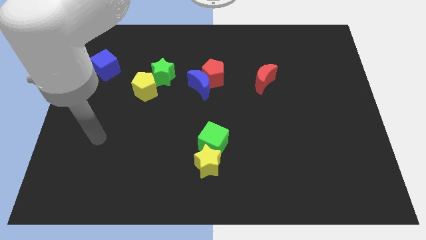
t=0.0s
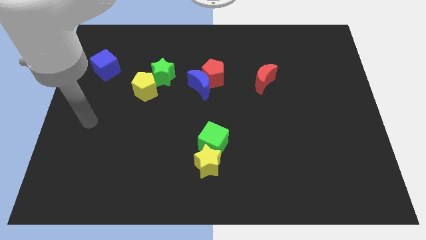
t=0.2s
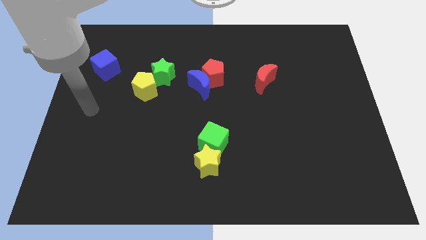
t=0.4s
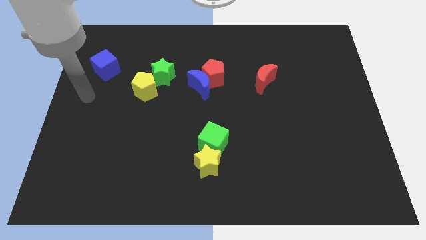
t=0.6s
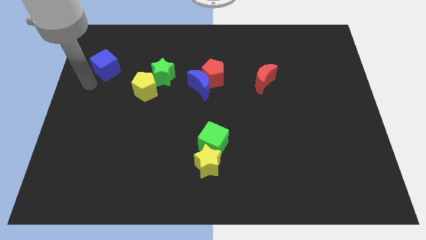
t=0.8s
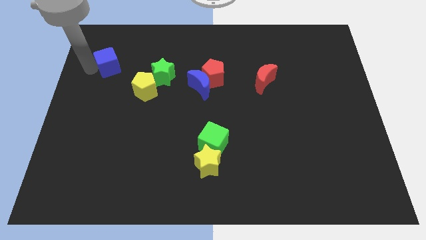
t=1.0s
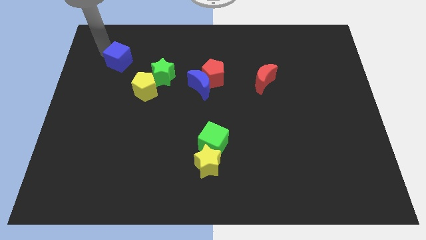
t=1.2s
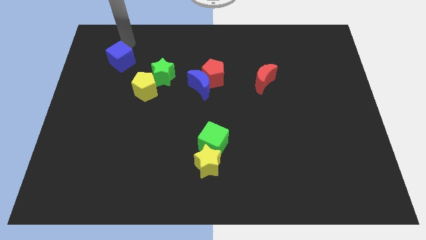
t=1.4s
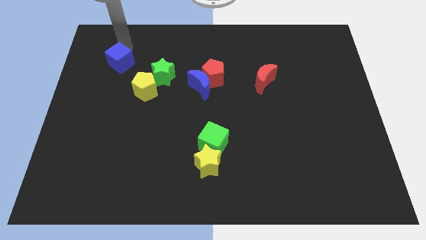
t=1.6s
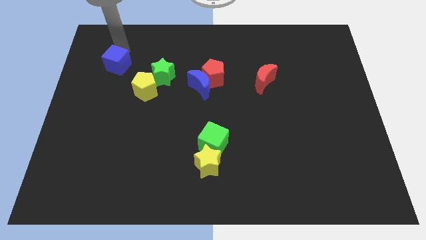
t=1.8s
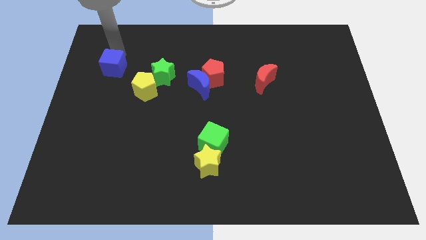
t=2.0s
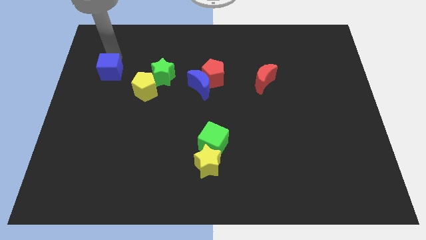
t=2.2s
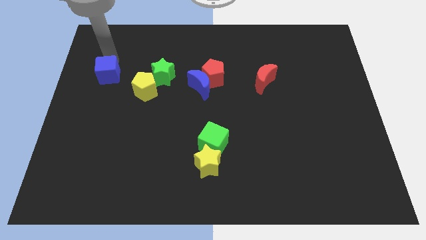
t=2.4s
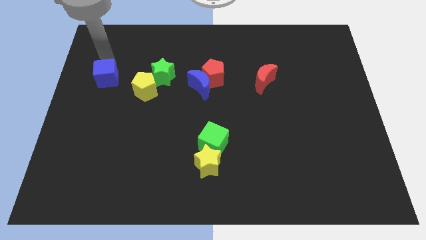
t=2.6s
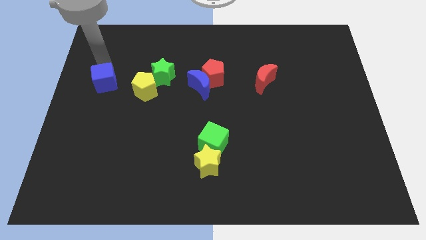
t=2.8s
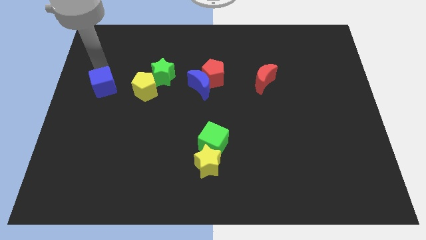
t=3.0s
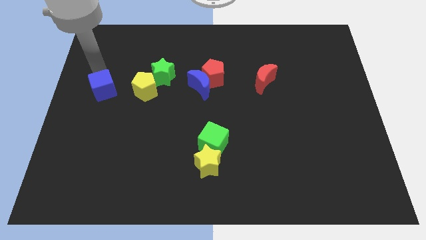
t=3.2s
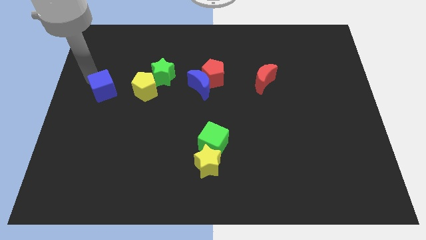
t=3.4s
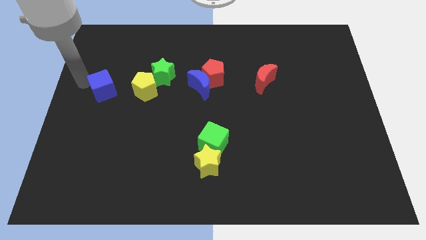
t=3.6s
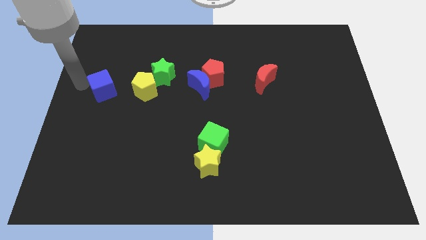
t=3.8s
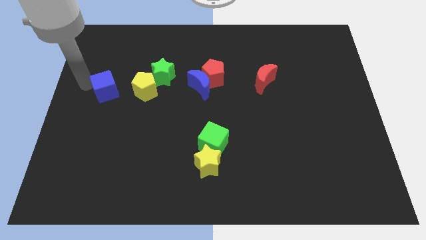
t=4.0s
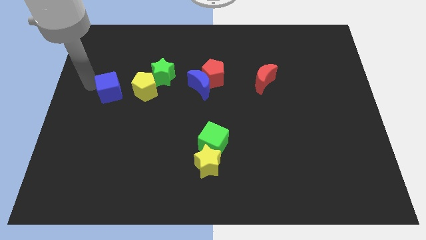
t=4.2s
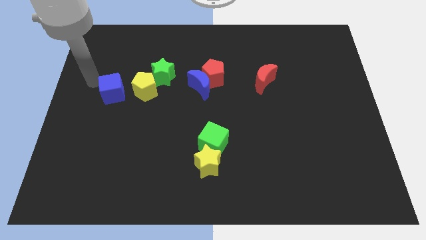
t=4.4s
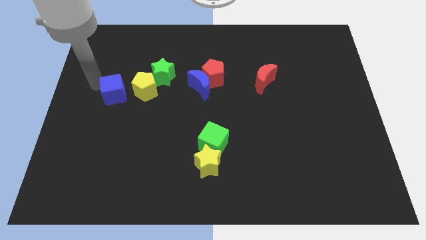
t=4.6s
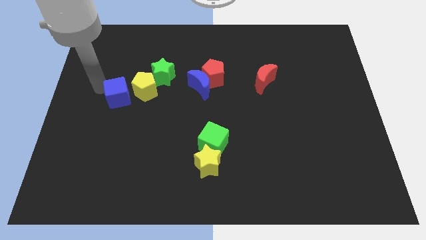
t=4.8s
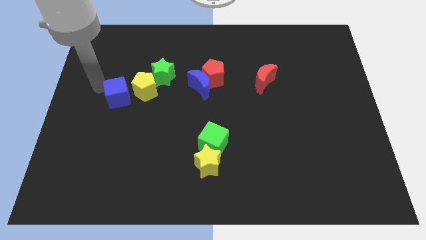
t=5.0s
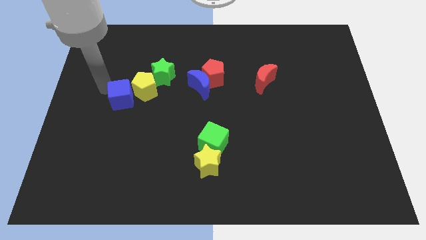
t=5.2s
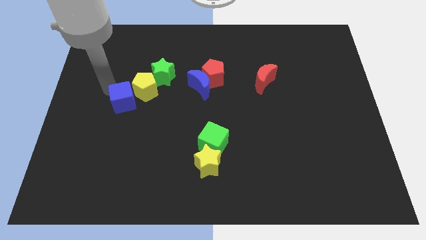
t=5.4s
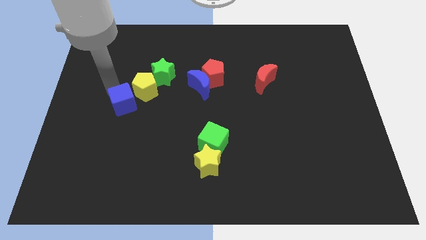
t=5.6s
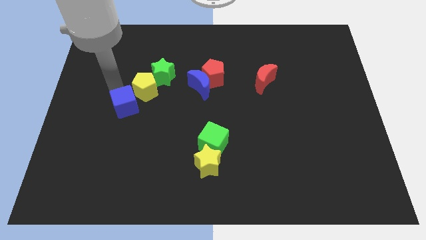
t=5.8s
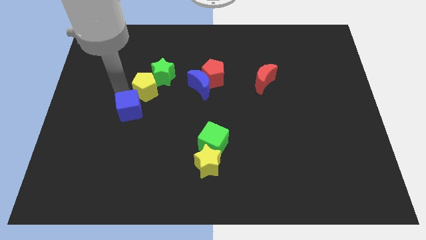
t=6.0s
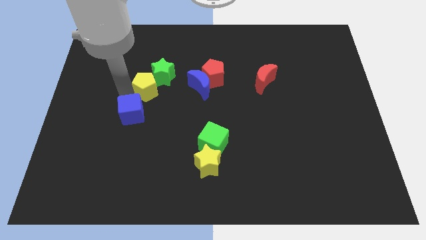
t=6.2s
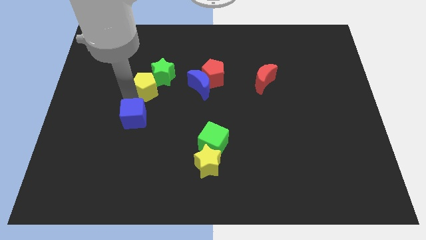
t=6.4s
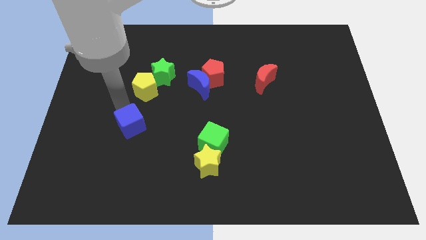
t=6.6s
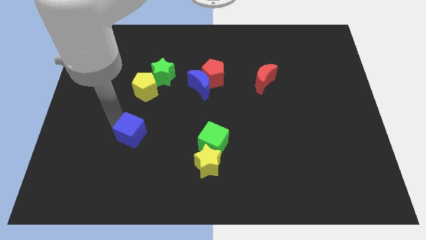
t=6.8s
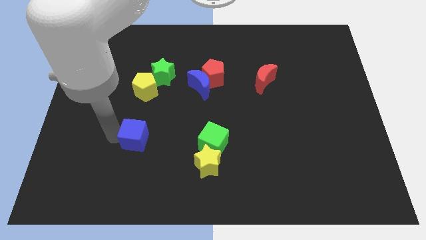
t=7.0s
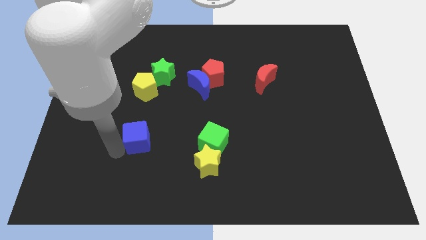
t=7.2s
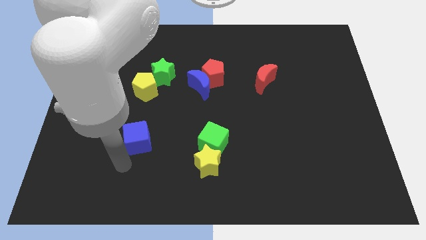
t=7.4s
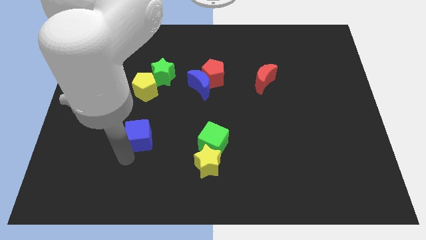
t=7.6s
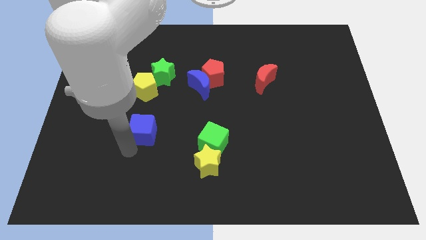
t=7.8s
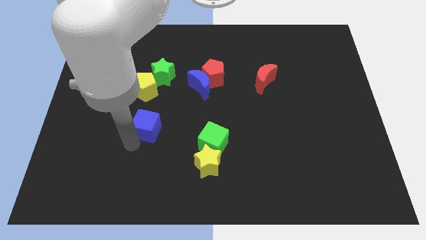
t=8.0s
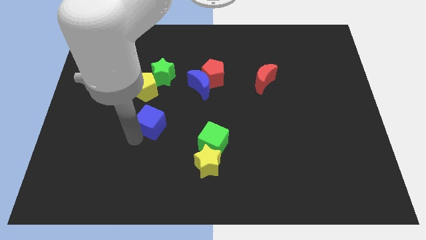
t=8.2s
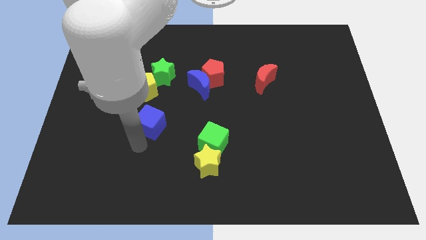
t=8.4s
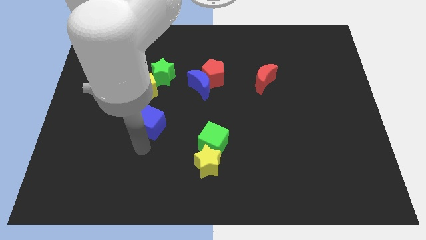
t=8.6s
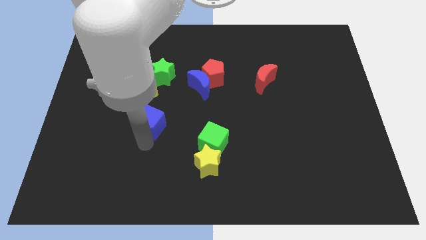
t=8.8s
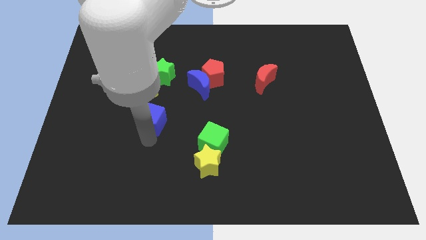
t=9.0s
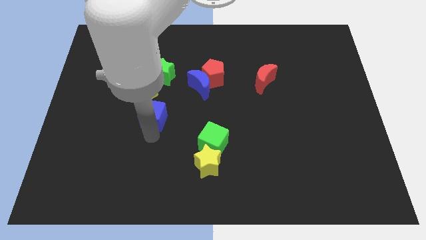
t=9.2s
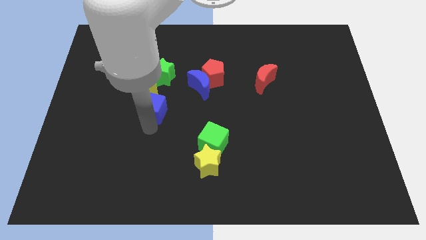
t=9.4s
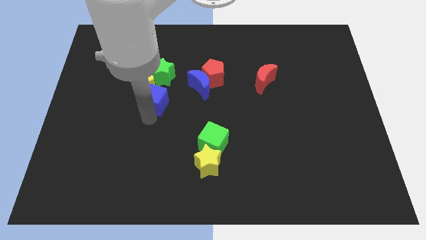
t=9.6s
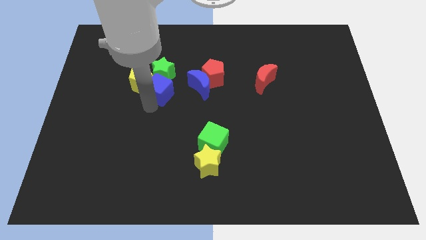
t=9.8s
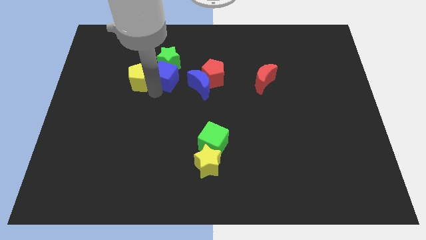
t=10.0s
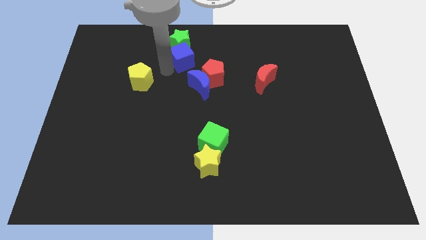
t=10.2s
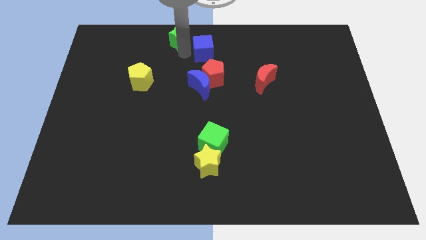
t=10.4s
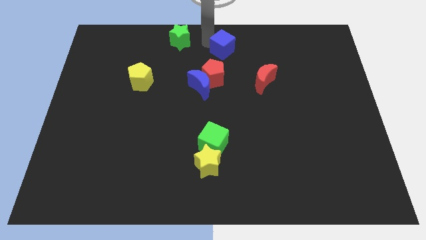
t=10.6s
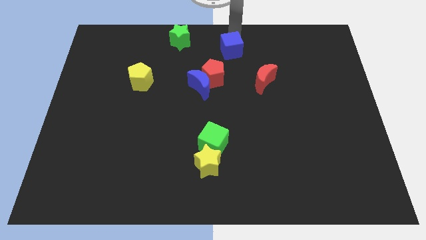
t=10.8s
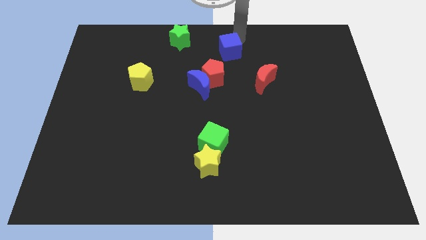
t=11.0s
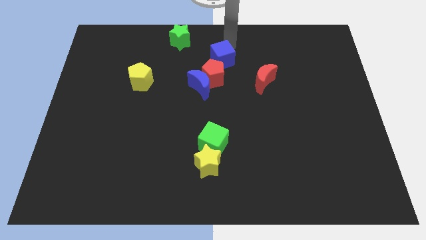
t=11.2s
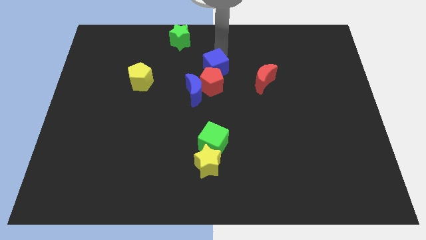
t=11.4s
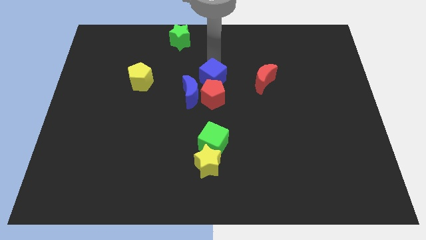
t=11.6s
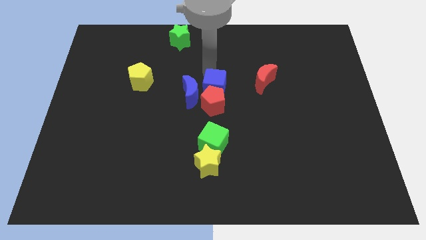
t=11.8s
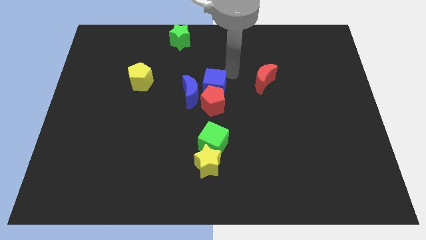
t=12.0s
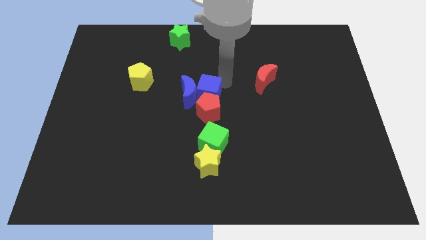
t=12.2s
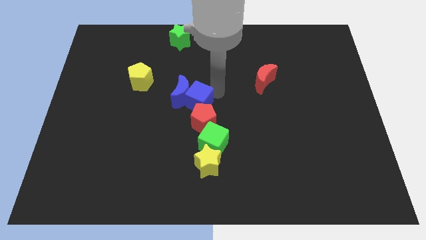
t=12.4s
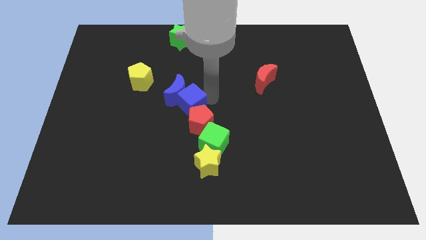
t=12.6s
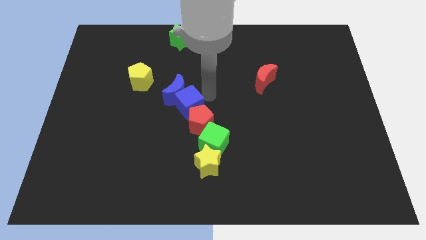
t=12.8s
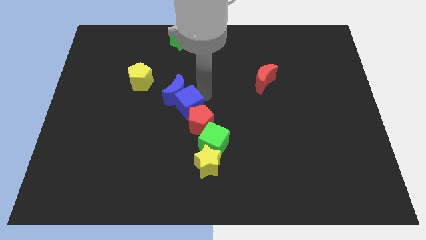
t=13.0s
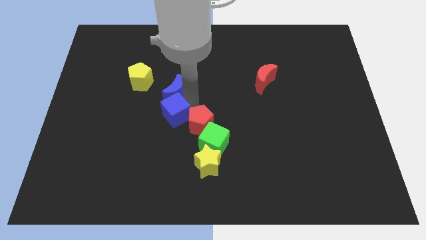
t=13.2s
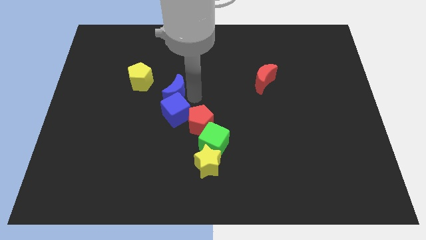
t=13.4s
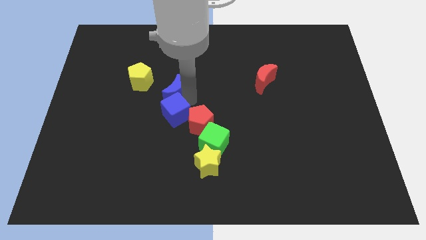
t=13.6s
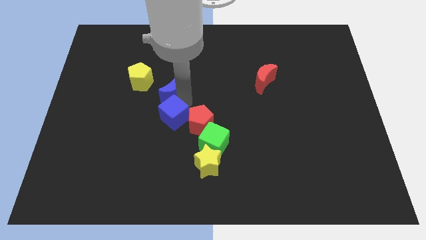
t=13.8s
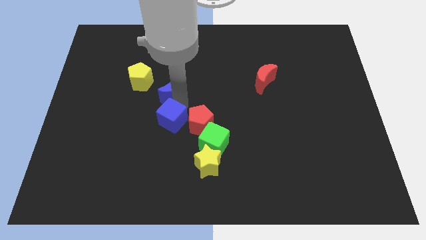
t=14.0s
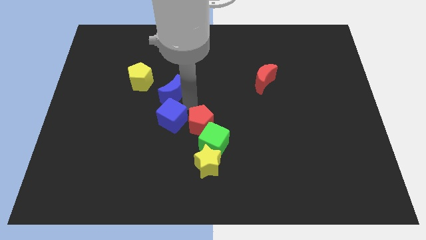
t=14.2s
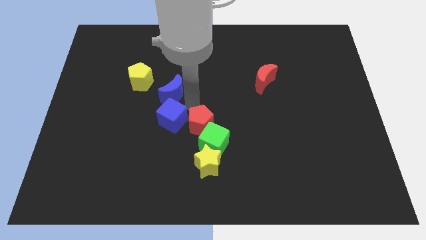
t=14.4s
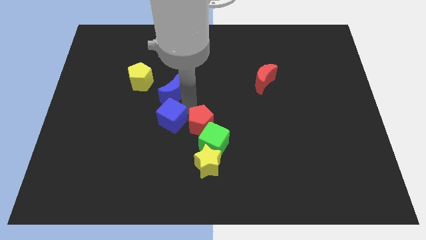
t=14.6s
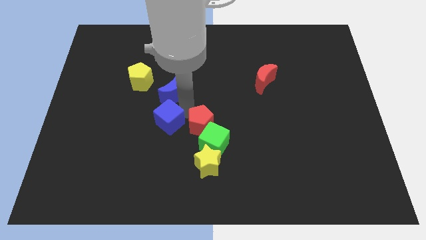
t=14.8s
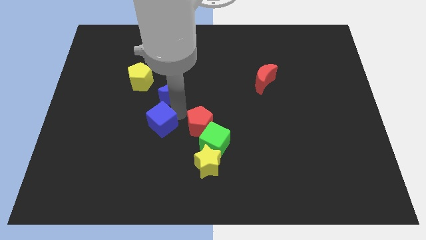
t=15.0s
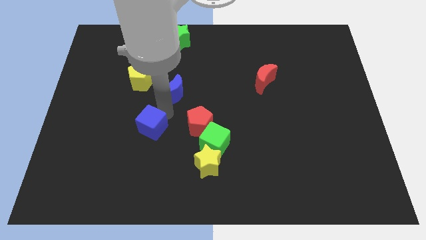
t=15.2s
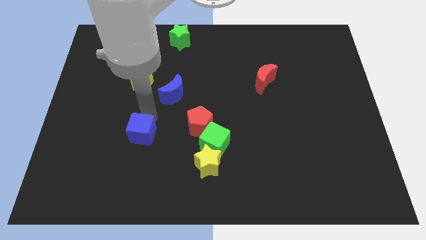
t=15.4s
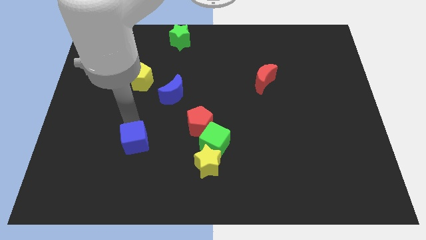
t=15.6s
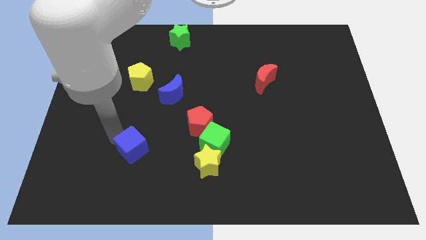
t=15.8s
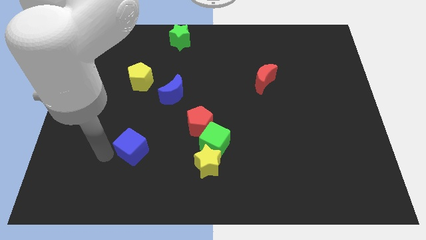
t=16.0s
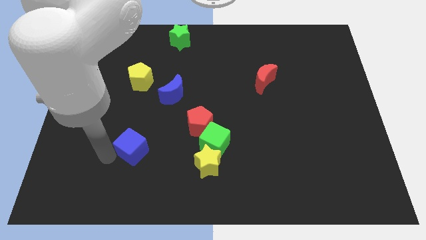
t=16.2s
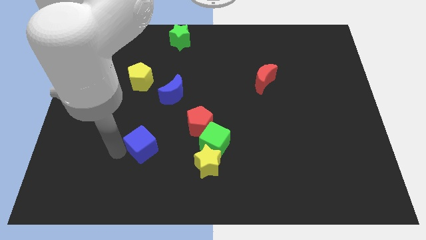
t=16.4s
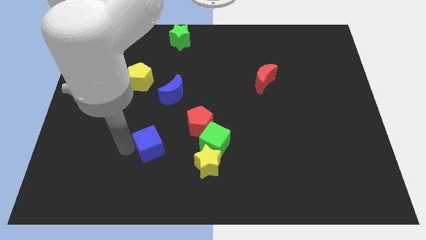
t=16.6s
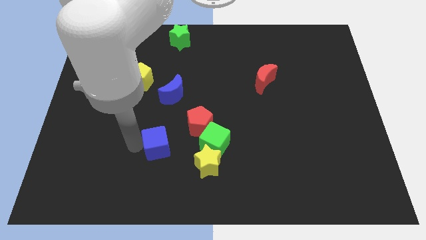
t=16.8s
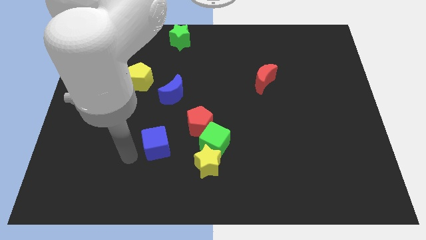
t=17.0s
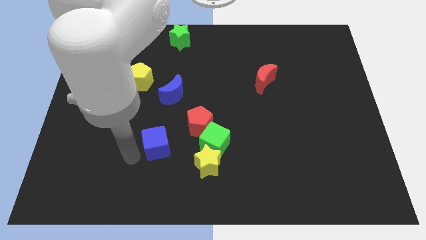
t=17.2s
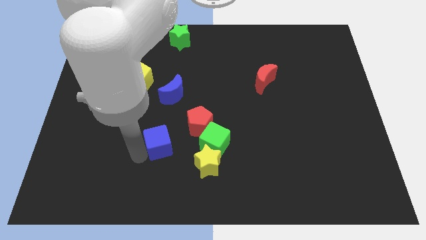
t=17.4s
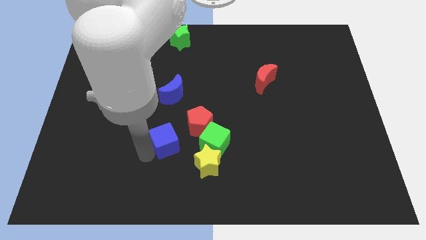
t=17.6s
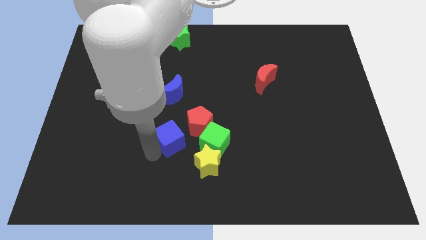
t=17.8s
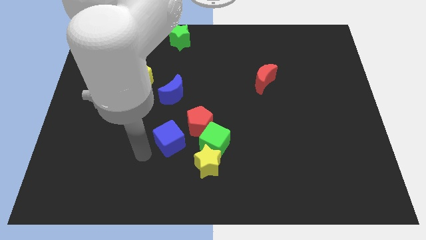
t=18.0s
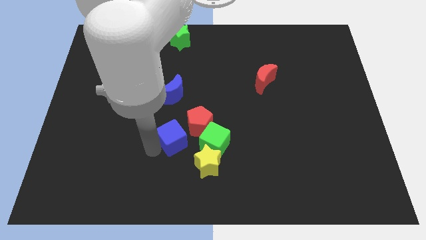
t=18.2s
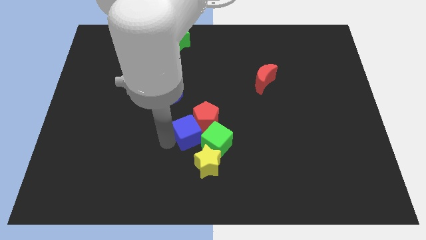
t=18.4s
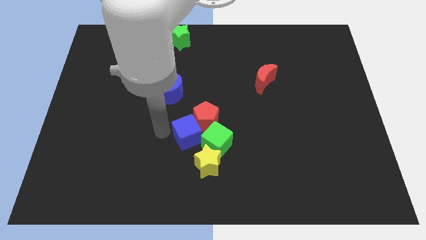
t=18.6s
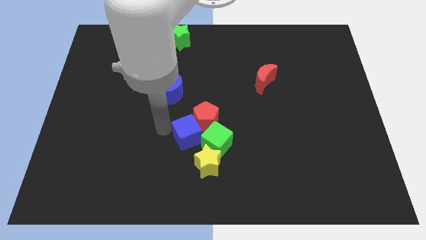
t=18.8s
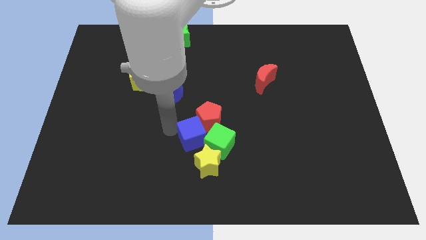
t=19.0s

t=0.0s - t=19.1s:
push the blue cube to the green cube
